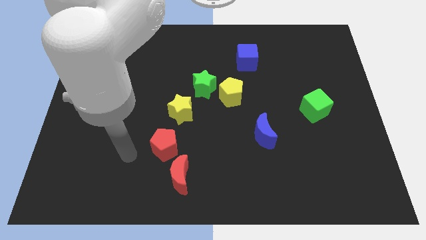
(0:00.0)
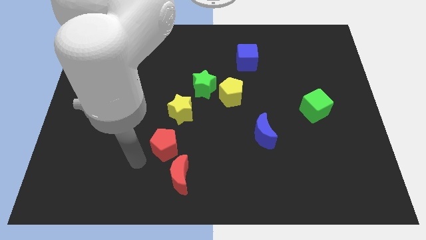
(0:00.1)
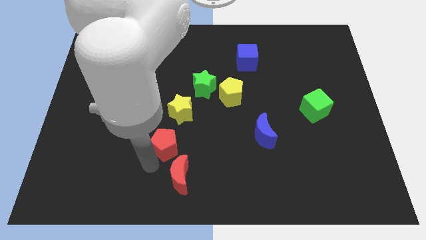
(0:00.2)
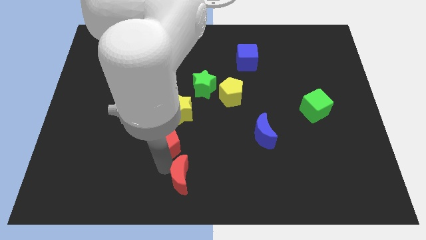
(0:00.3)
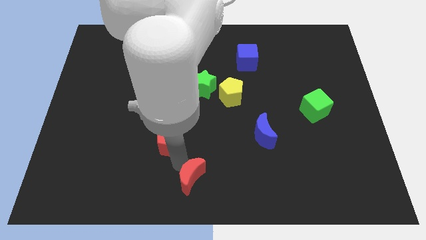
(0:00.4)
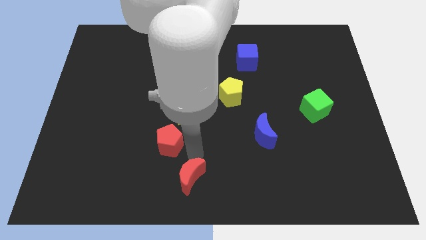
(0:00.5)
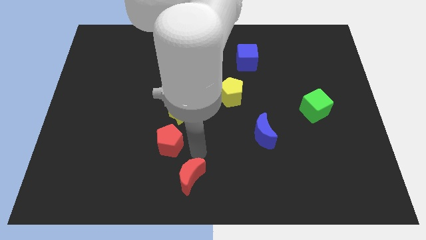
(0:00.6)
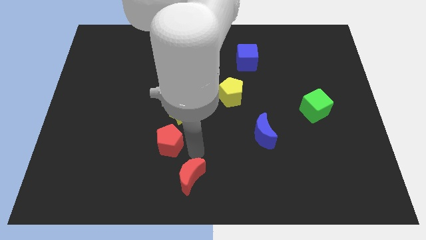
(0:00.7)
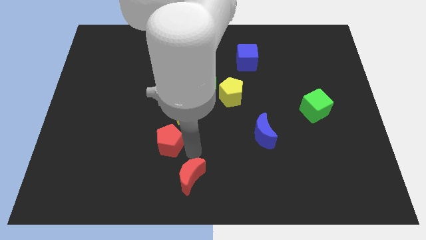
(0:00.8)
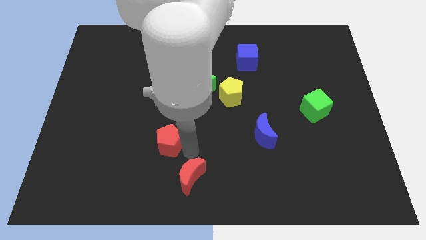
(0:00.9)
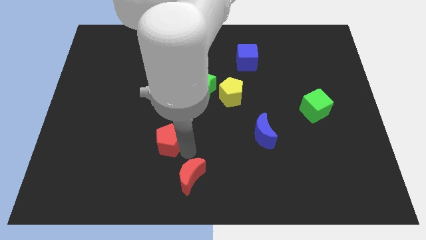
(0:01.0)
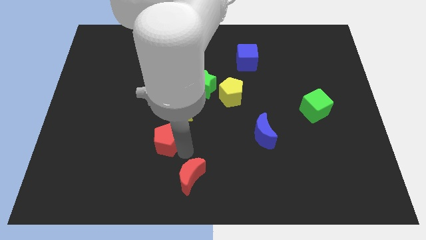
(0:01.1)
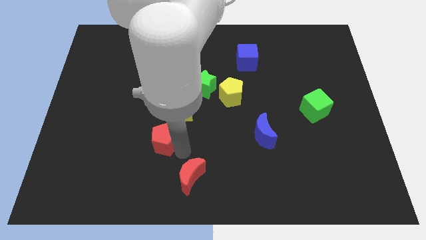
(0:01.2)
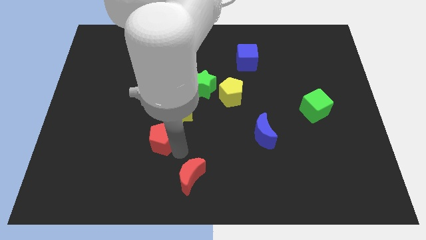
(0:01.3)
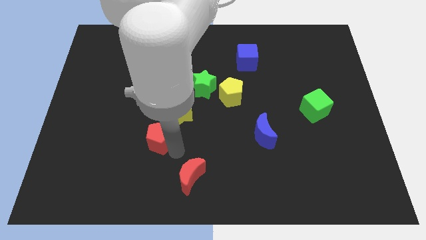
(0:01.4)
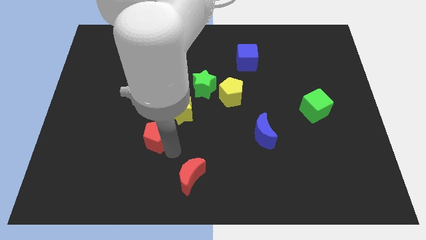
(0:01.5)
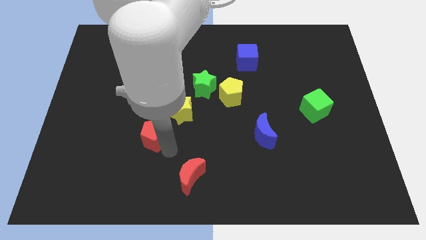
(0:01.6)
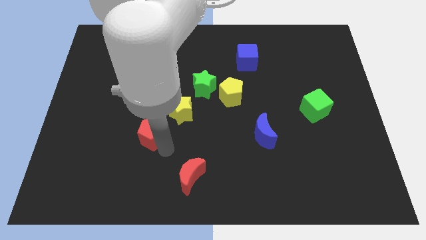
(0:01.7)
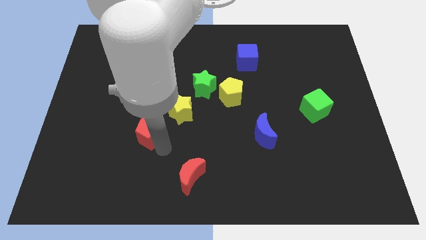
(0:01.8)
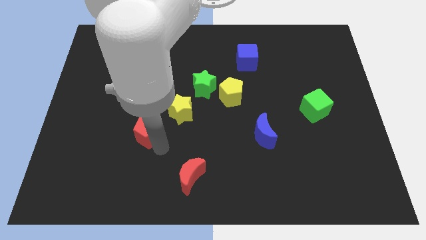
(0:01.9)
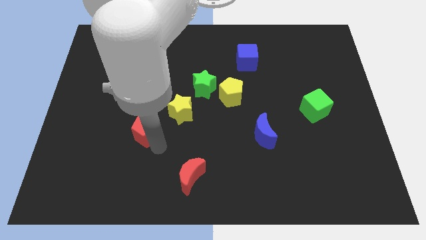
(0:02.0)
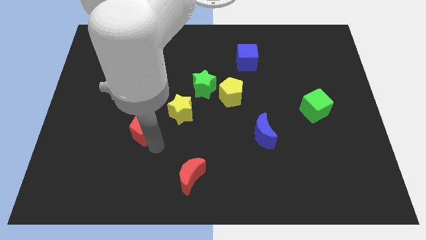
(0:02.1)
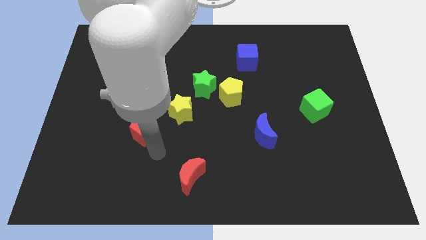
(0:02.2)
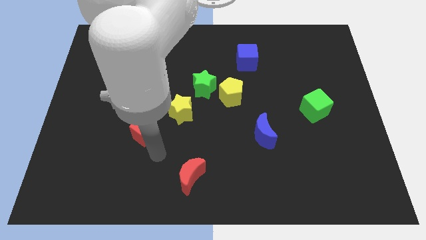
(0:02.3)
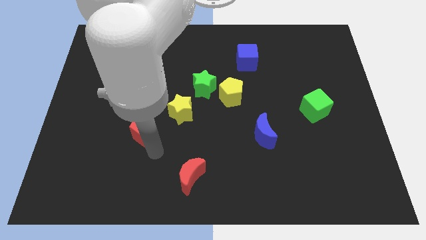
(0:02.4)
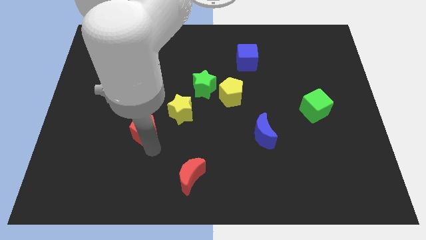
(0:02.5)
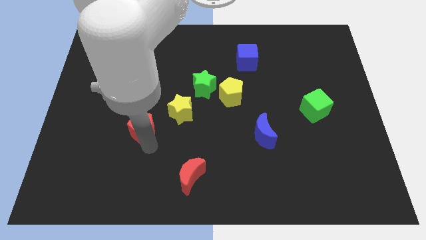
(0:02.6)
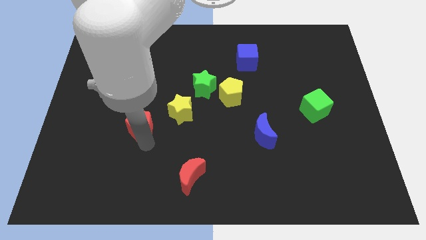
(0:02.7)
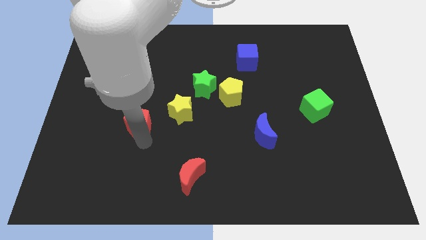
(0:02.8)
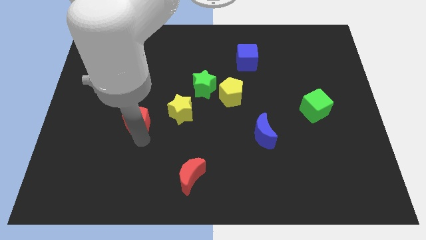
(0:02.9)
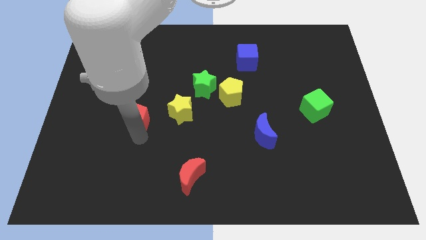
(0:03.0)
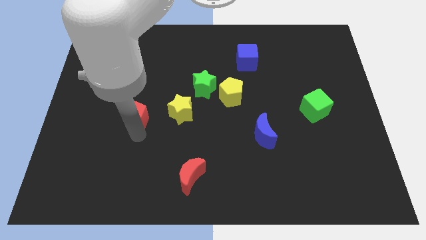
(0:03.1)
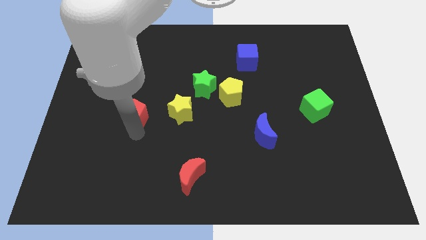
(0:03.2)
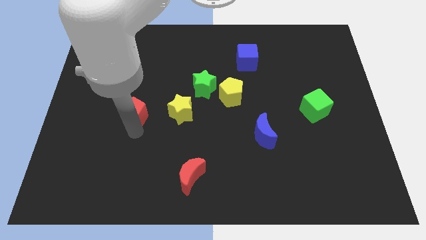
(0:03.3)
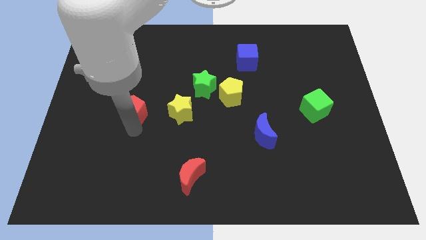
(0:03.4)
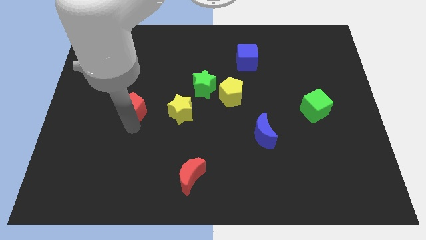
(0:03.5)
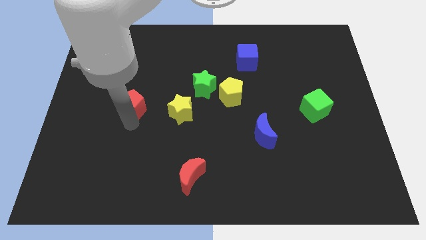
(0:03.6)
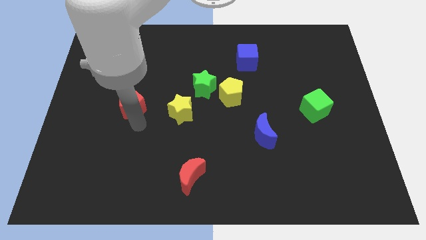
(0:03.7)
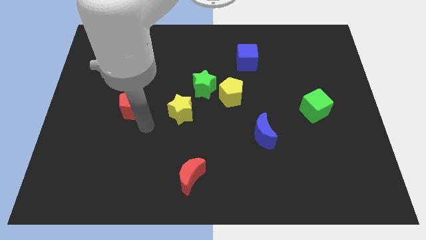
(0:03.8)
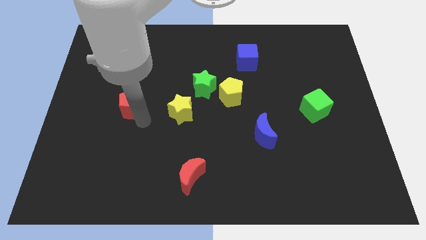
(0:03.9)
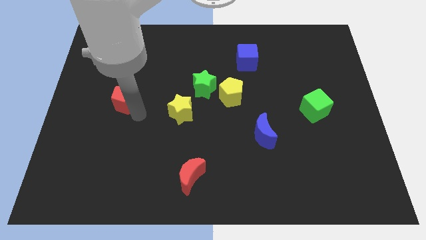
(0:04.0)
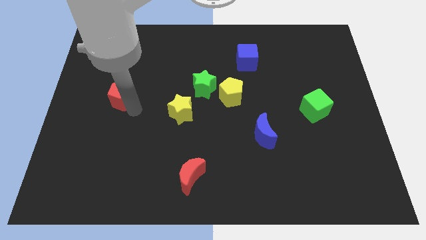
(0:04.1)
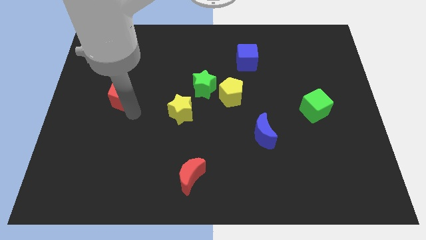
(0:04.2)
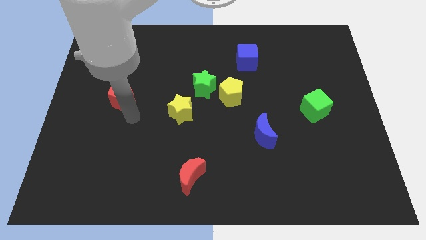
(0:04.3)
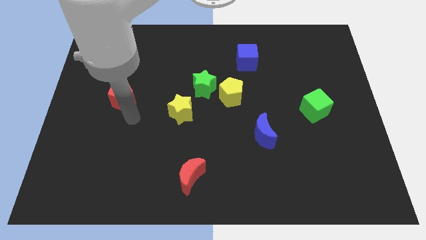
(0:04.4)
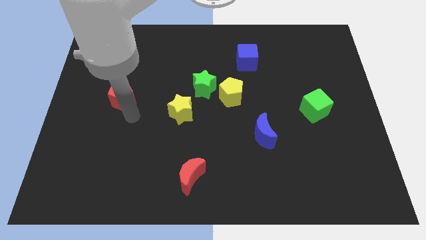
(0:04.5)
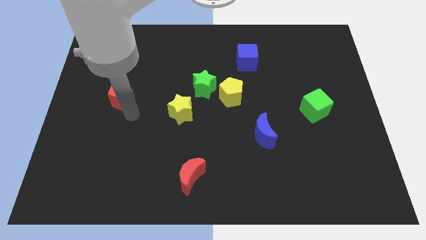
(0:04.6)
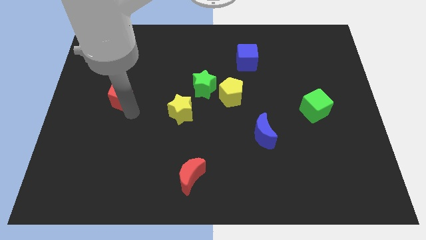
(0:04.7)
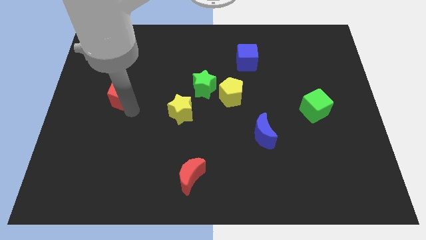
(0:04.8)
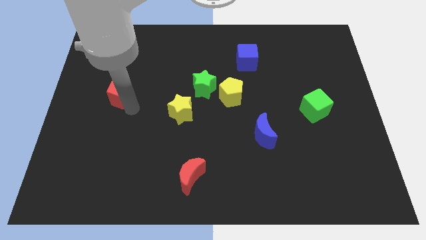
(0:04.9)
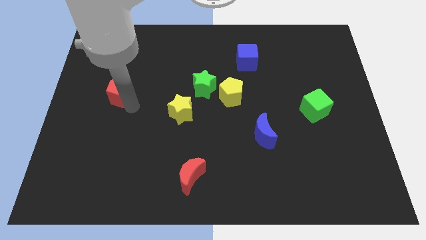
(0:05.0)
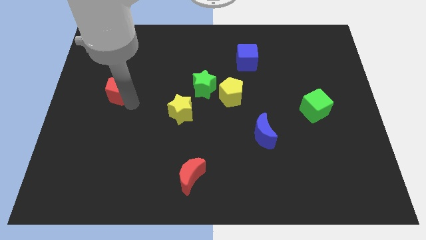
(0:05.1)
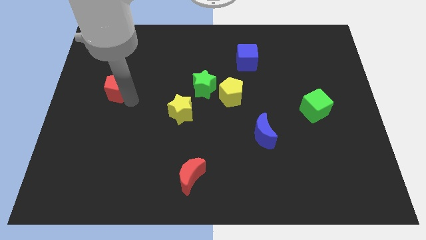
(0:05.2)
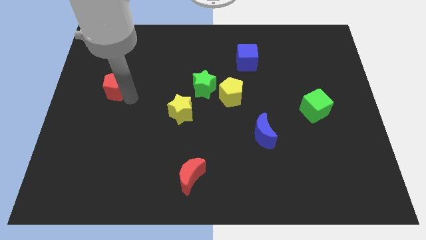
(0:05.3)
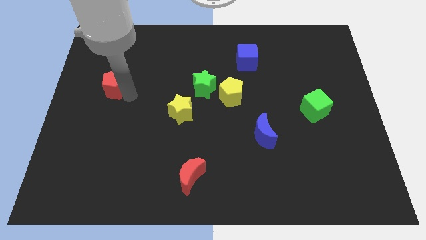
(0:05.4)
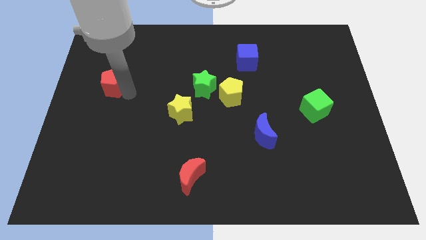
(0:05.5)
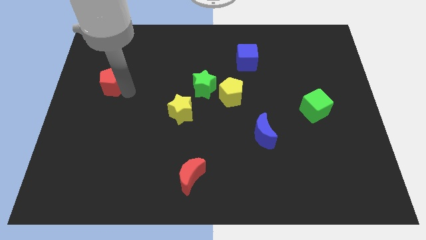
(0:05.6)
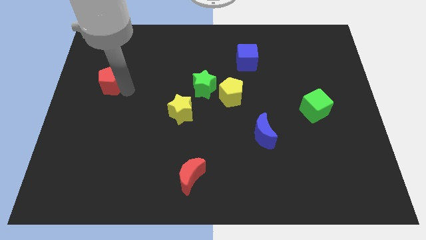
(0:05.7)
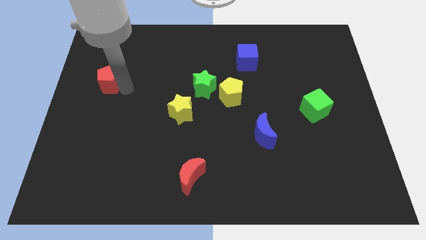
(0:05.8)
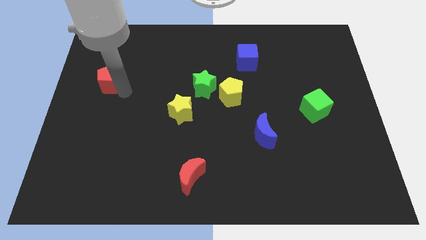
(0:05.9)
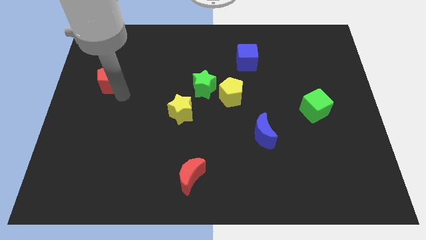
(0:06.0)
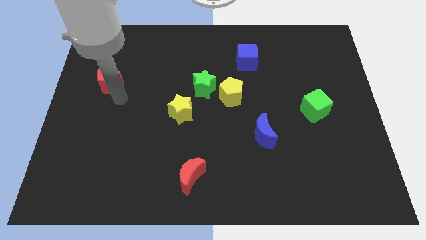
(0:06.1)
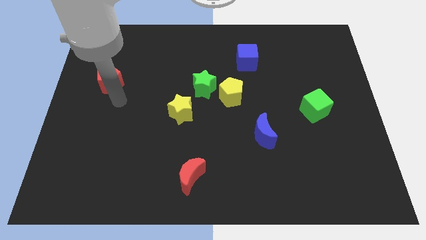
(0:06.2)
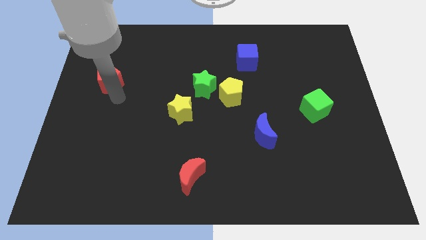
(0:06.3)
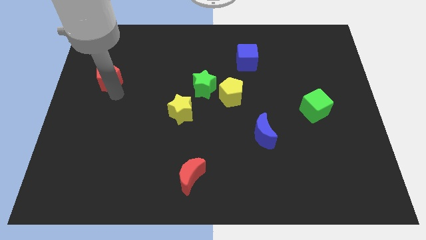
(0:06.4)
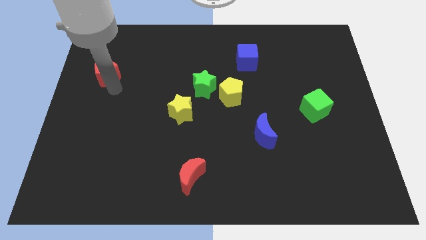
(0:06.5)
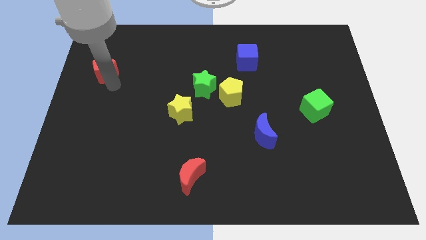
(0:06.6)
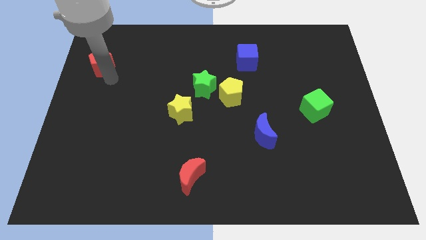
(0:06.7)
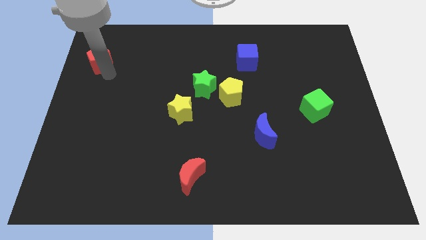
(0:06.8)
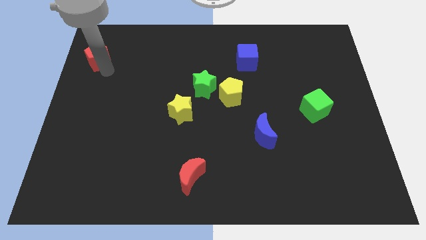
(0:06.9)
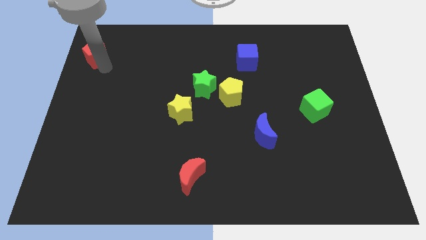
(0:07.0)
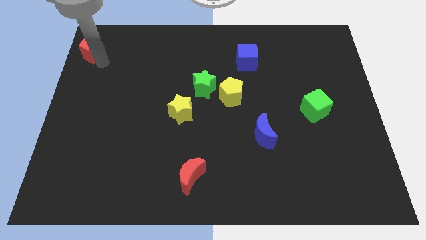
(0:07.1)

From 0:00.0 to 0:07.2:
put the red pentagon to the top left corner
